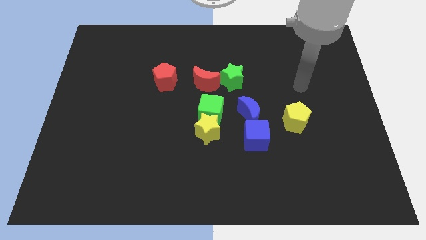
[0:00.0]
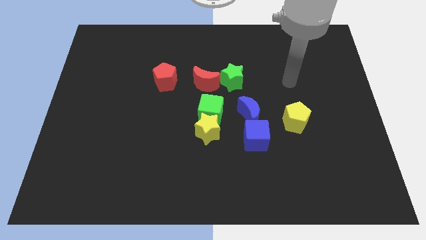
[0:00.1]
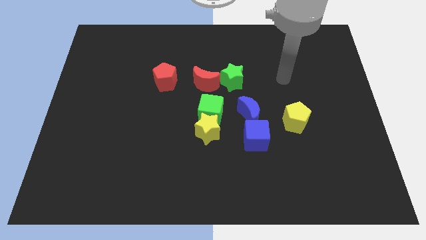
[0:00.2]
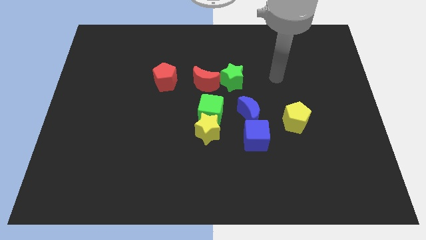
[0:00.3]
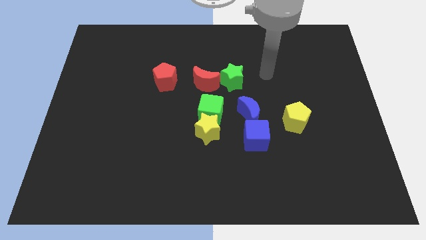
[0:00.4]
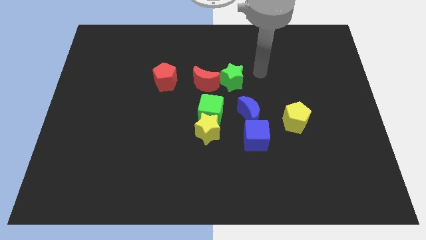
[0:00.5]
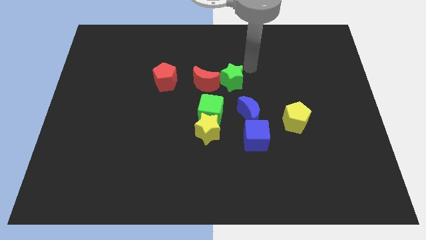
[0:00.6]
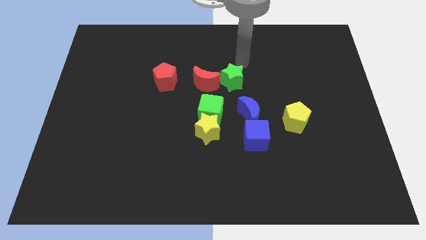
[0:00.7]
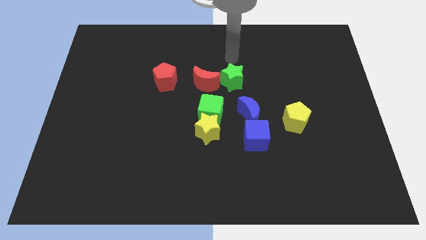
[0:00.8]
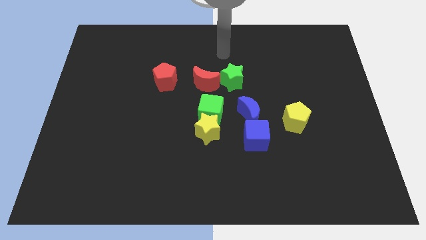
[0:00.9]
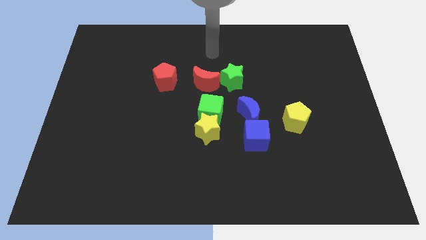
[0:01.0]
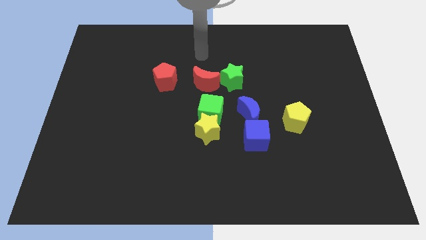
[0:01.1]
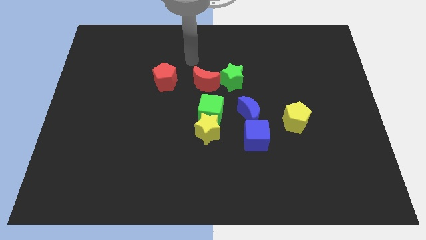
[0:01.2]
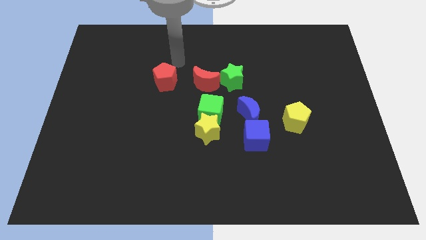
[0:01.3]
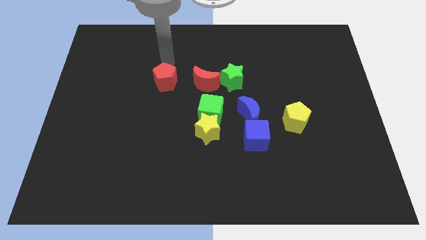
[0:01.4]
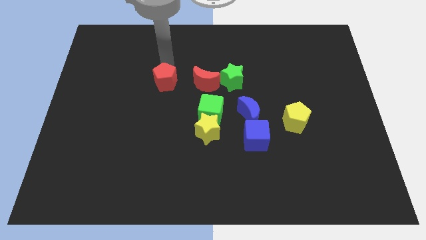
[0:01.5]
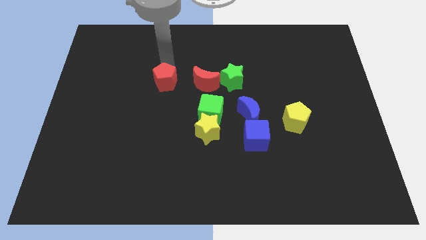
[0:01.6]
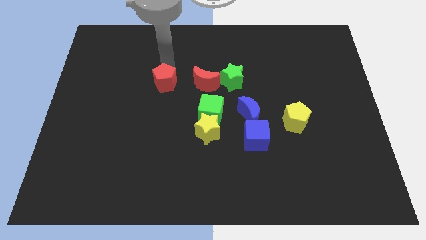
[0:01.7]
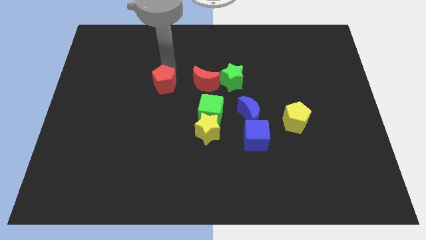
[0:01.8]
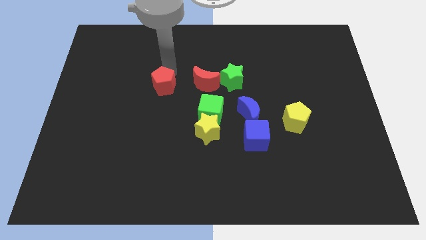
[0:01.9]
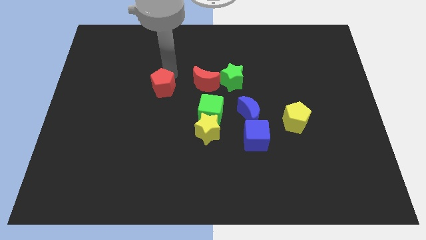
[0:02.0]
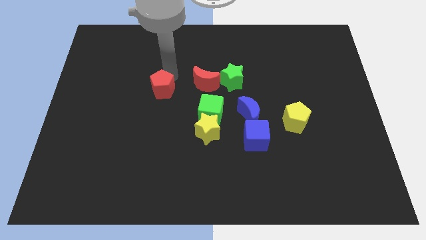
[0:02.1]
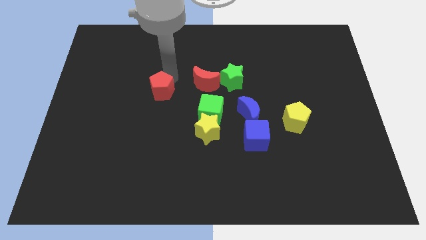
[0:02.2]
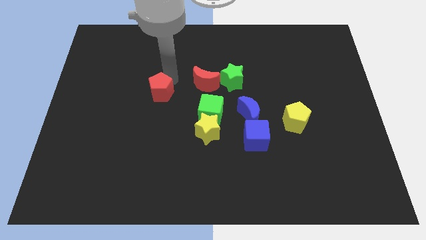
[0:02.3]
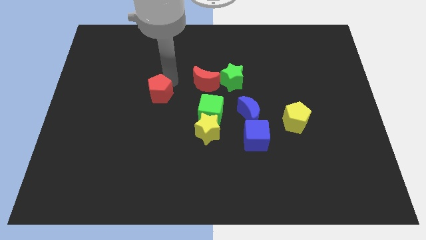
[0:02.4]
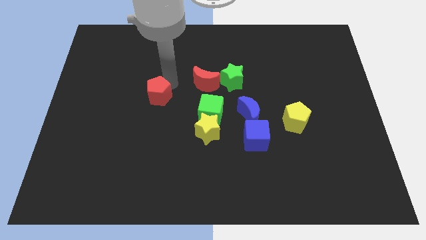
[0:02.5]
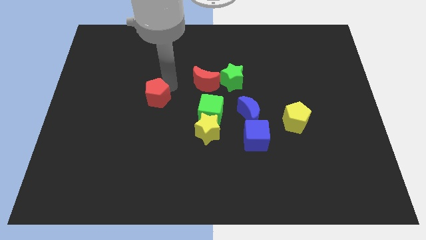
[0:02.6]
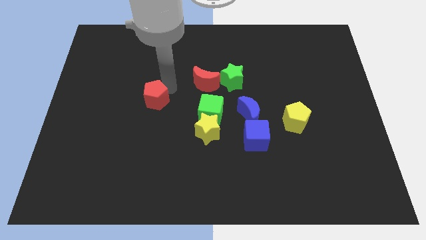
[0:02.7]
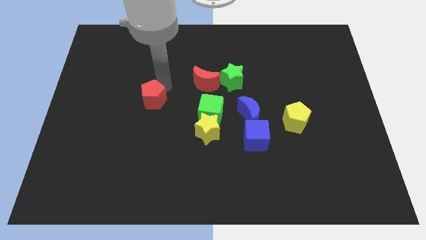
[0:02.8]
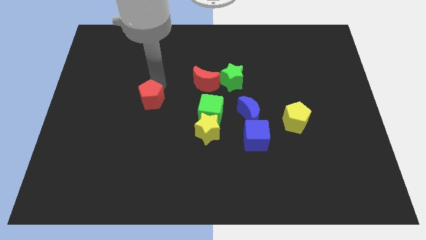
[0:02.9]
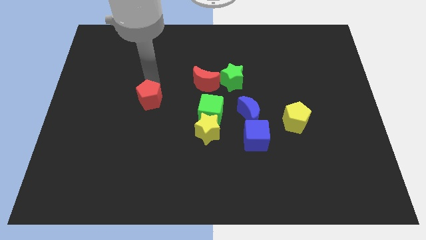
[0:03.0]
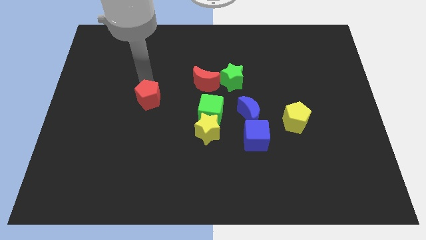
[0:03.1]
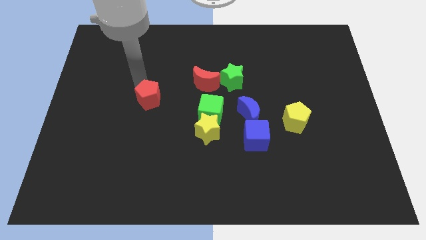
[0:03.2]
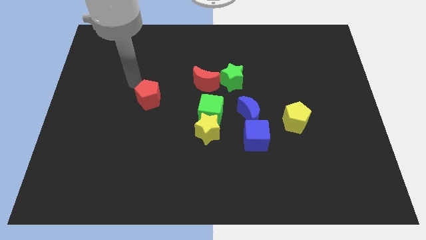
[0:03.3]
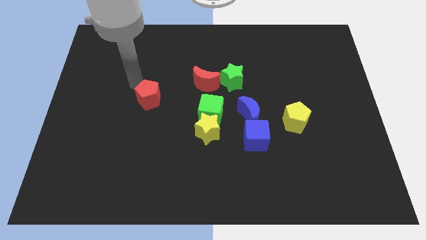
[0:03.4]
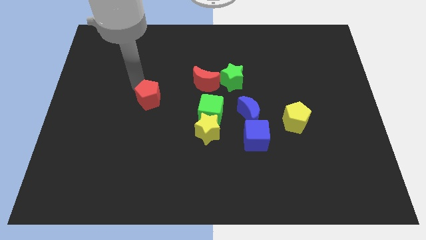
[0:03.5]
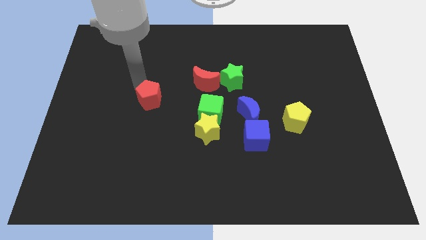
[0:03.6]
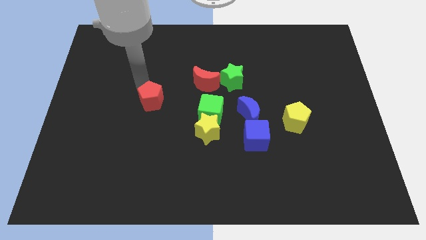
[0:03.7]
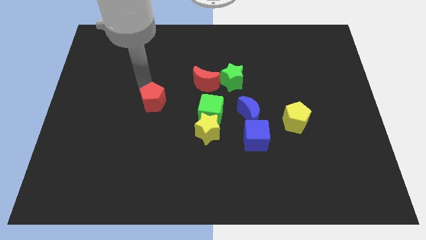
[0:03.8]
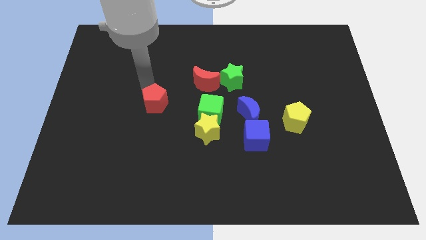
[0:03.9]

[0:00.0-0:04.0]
move the red pentagon somewhat downwards

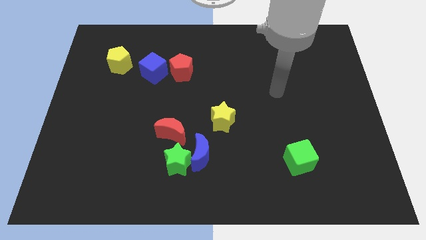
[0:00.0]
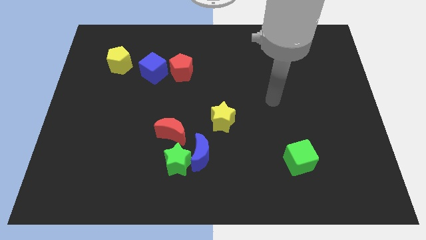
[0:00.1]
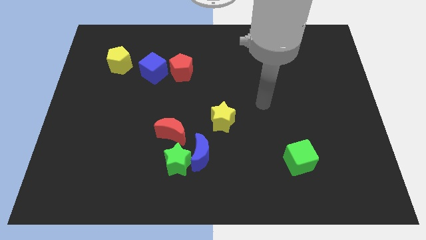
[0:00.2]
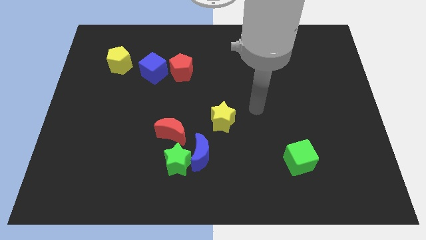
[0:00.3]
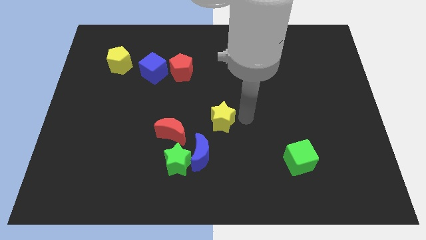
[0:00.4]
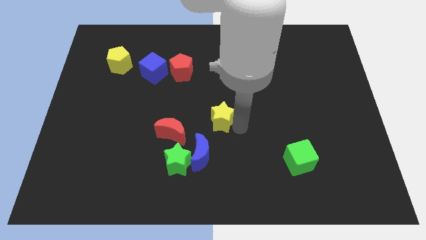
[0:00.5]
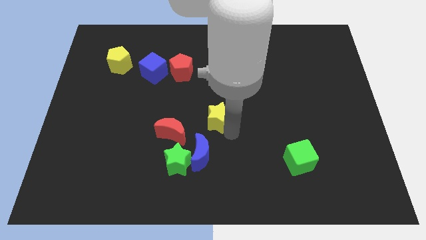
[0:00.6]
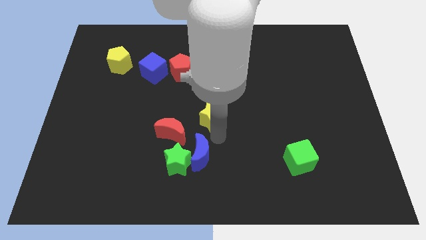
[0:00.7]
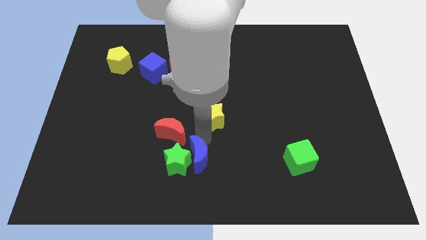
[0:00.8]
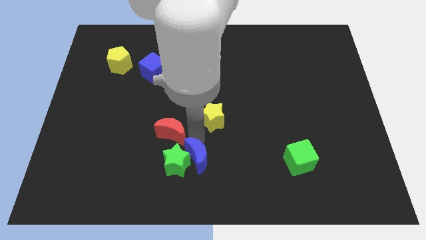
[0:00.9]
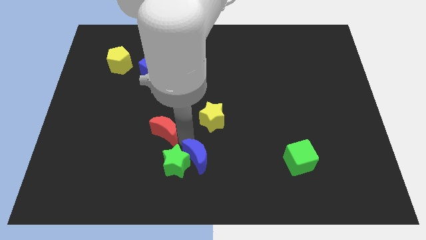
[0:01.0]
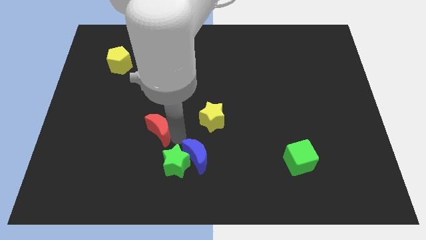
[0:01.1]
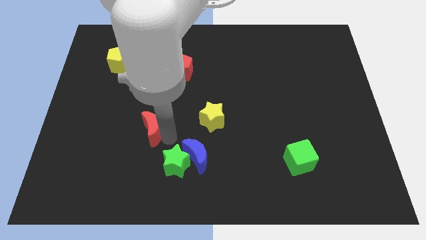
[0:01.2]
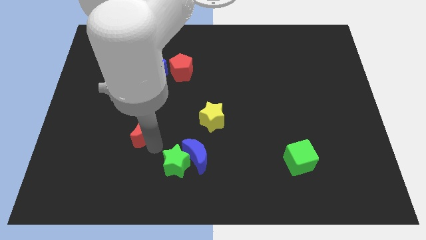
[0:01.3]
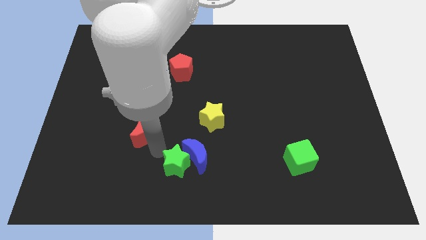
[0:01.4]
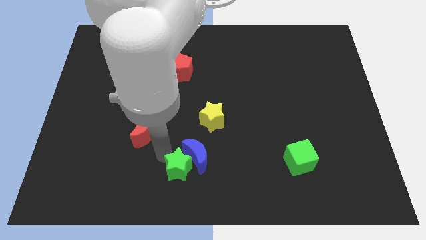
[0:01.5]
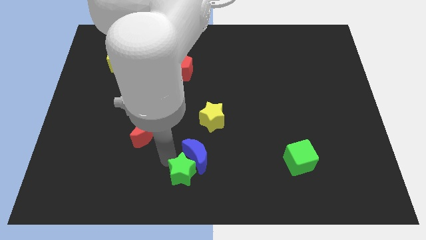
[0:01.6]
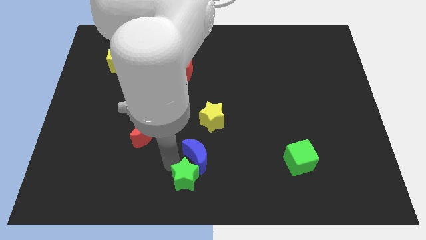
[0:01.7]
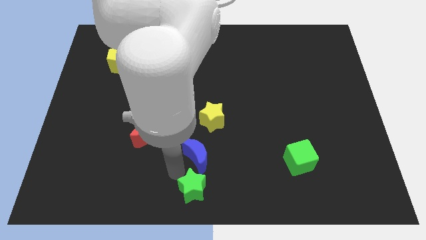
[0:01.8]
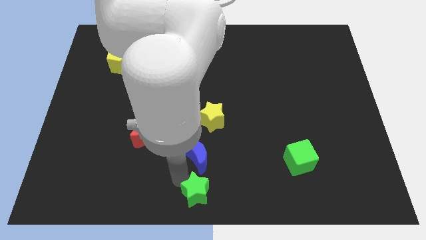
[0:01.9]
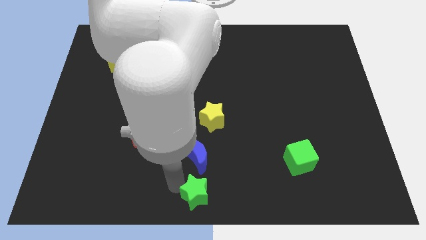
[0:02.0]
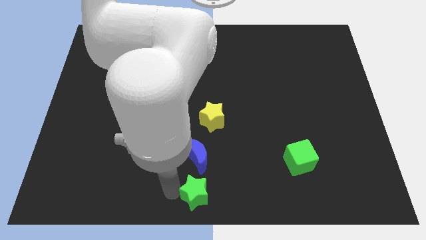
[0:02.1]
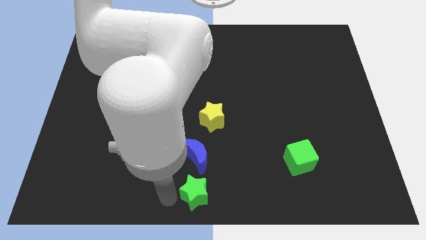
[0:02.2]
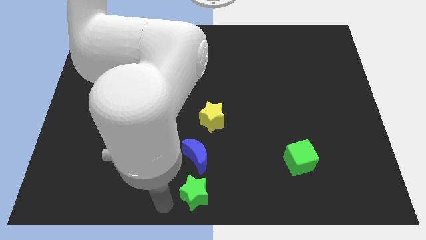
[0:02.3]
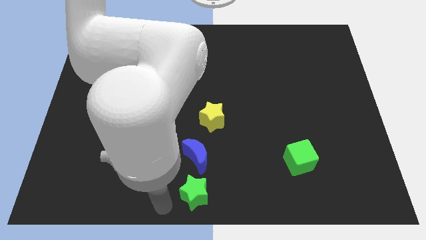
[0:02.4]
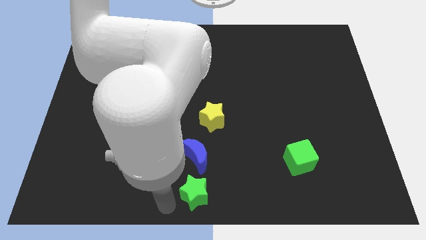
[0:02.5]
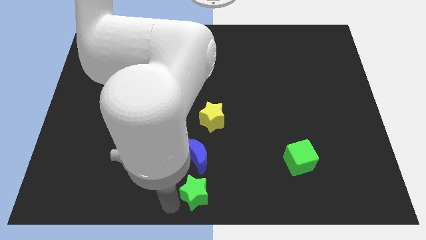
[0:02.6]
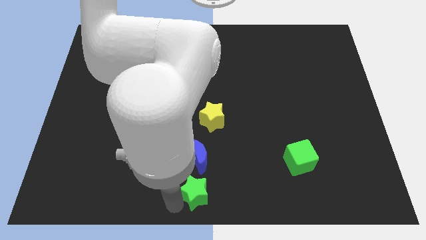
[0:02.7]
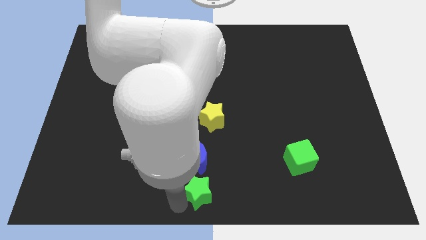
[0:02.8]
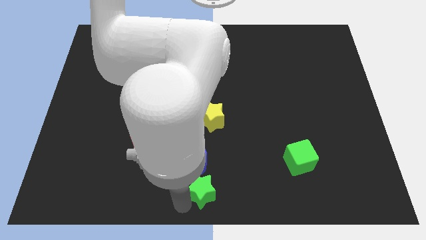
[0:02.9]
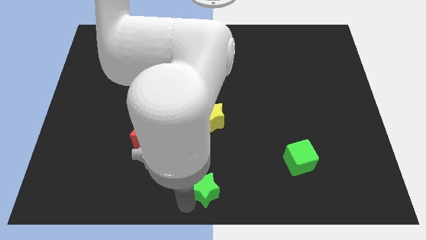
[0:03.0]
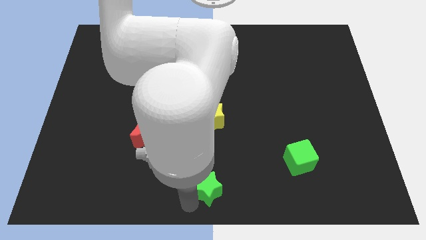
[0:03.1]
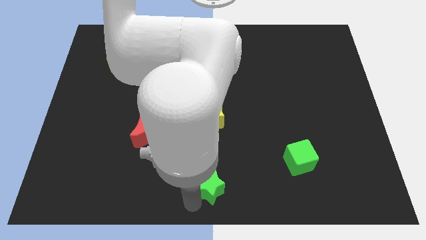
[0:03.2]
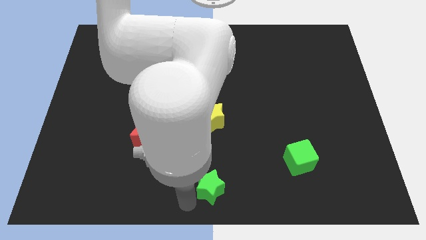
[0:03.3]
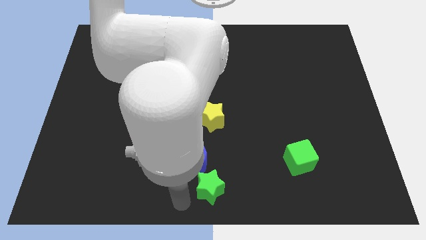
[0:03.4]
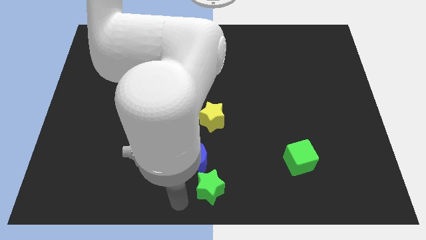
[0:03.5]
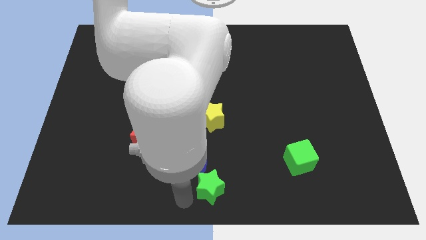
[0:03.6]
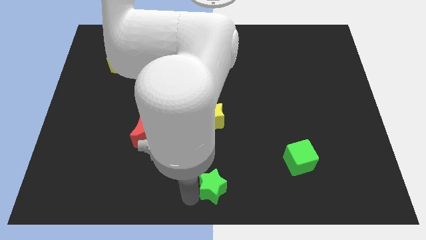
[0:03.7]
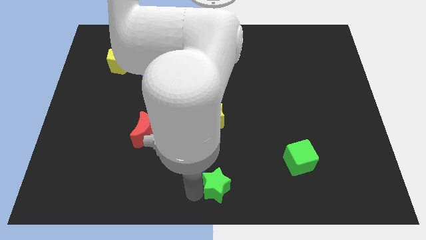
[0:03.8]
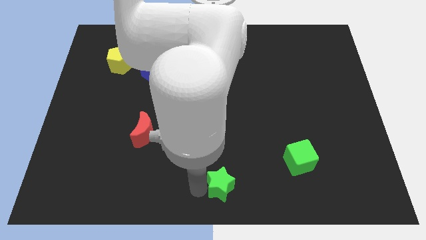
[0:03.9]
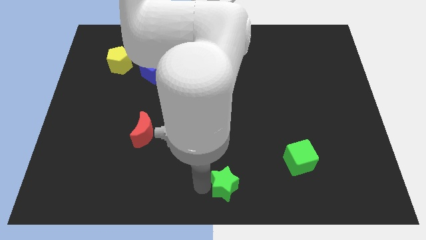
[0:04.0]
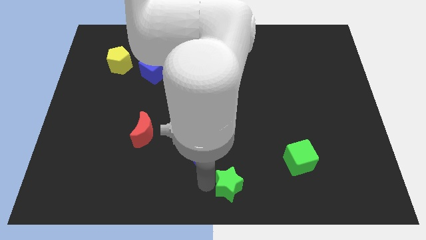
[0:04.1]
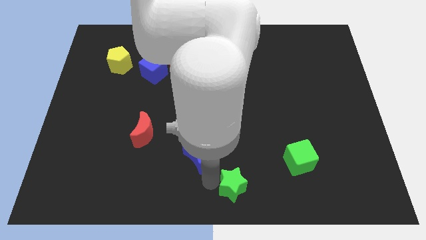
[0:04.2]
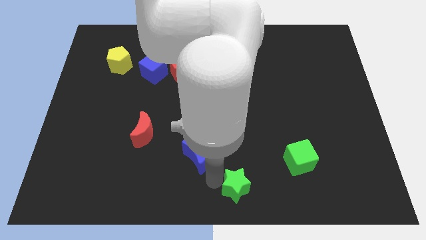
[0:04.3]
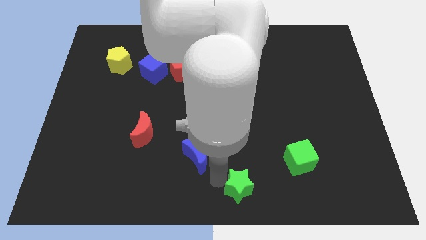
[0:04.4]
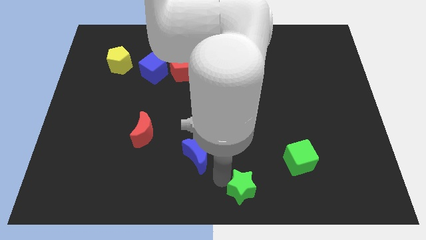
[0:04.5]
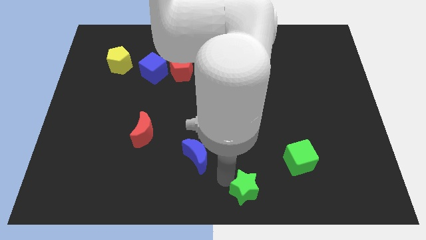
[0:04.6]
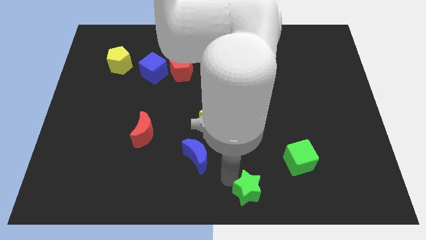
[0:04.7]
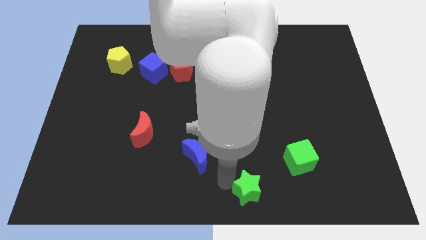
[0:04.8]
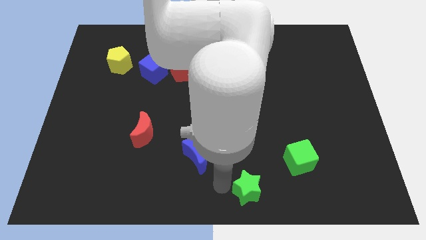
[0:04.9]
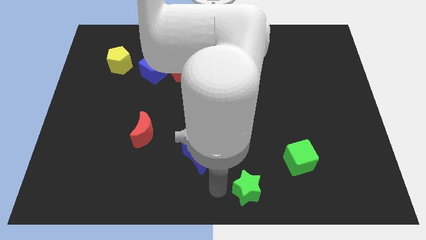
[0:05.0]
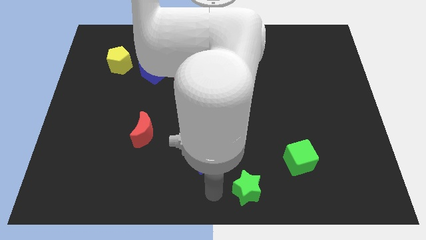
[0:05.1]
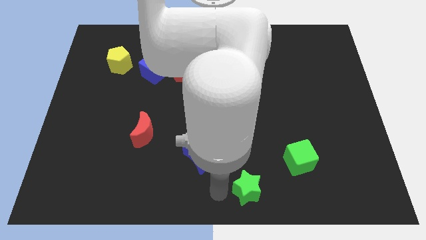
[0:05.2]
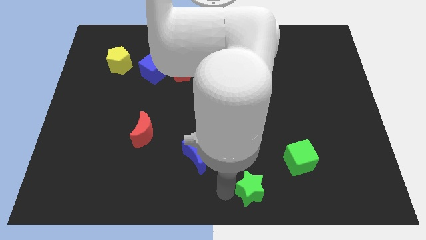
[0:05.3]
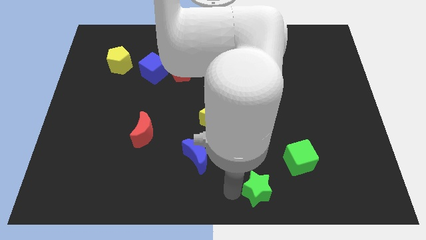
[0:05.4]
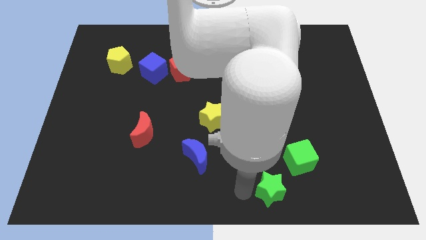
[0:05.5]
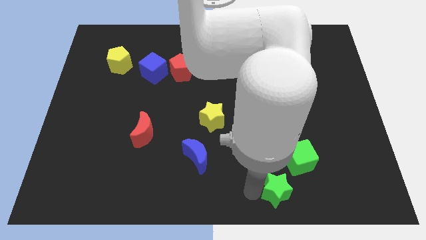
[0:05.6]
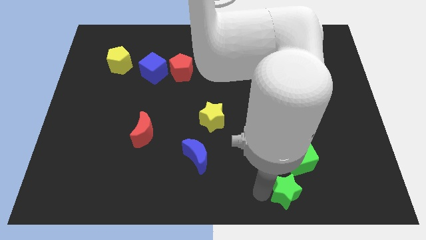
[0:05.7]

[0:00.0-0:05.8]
slide the green star to the right
